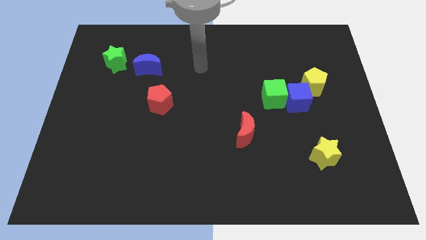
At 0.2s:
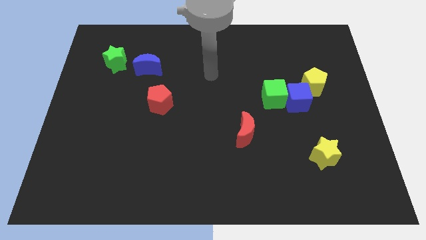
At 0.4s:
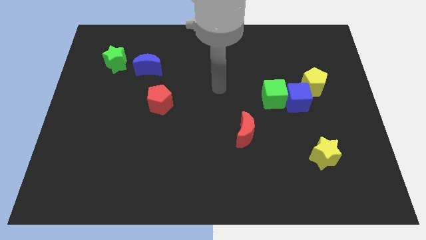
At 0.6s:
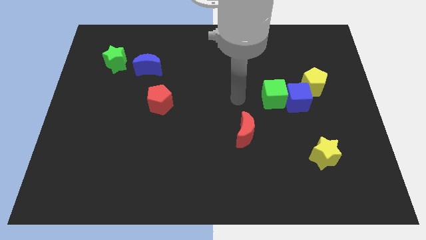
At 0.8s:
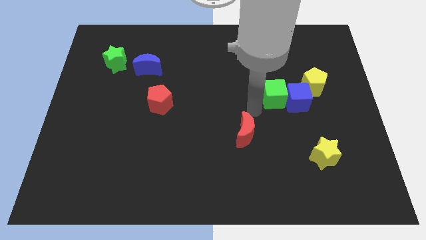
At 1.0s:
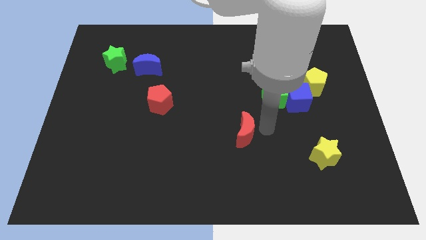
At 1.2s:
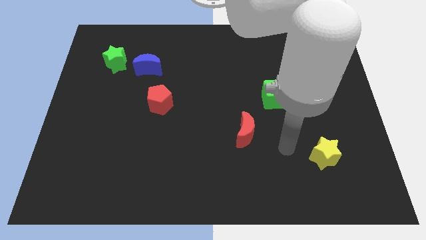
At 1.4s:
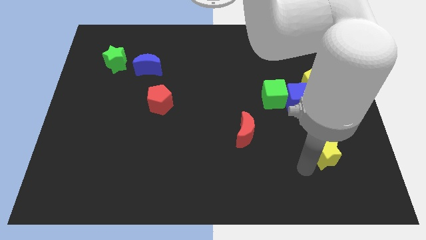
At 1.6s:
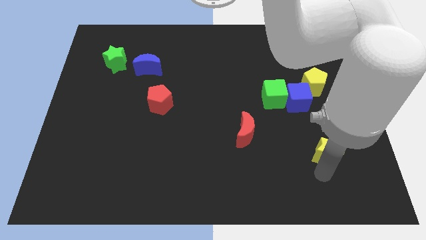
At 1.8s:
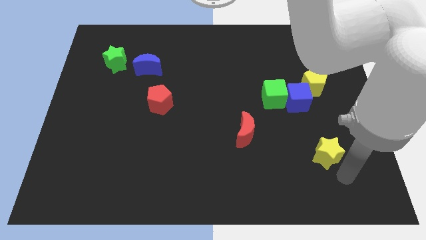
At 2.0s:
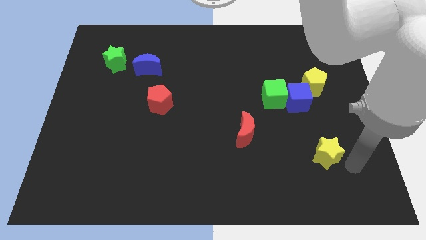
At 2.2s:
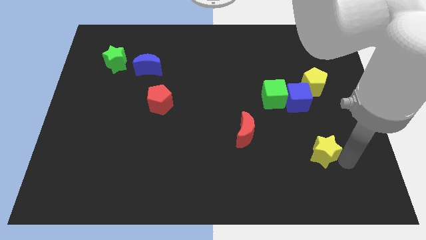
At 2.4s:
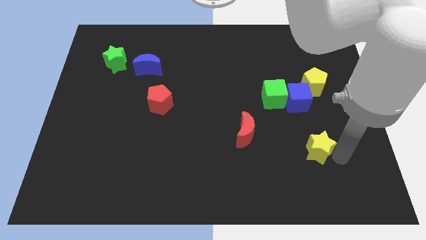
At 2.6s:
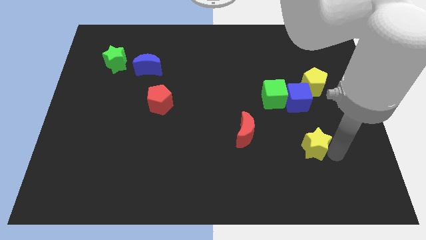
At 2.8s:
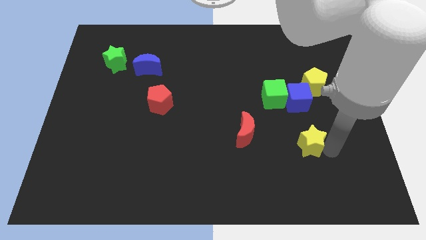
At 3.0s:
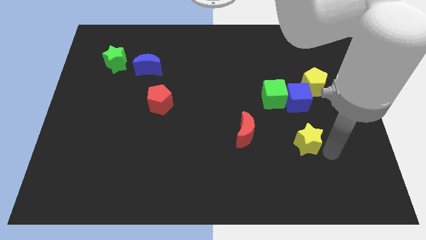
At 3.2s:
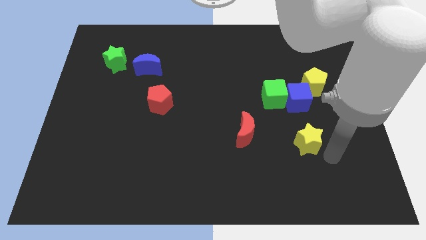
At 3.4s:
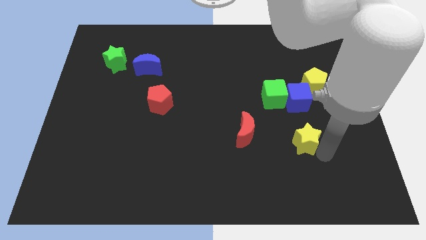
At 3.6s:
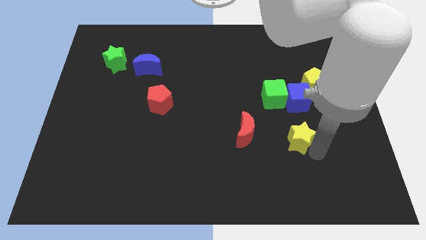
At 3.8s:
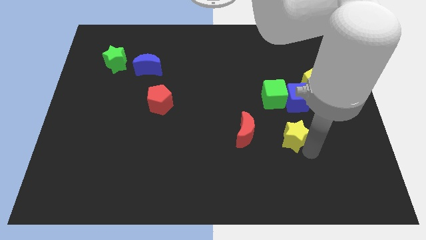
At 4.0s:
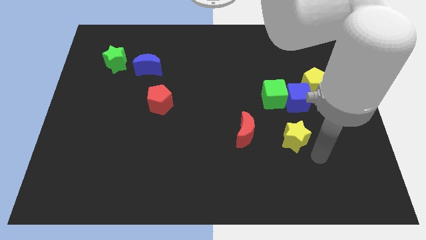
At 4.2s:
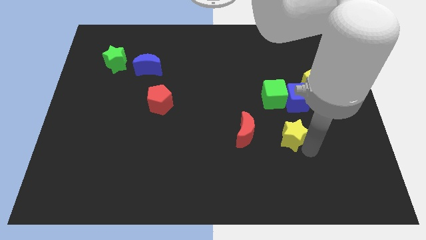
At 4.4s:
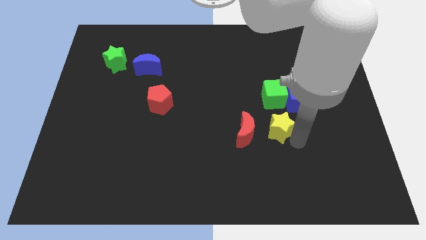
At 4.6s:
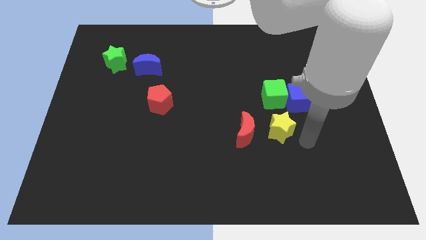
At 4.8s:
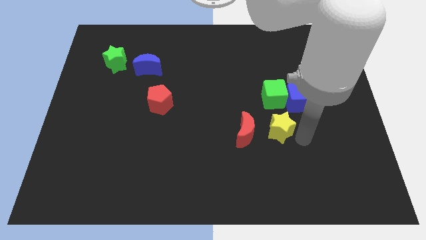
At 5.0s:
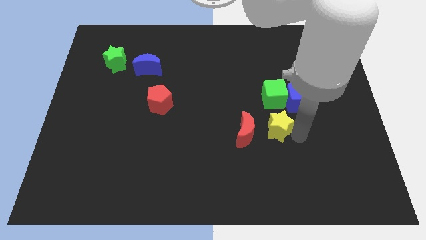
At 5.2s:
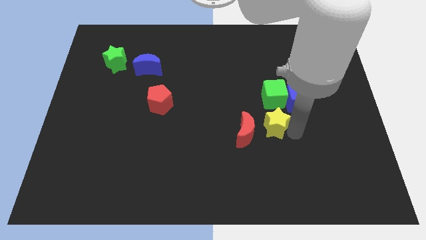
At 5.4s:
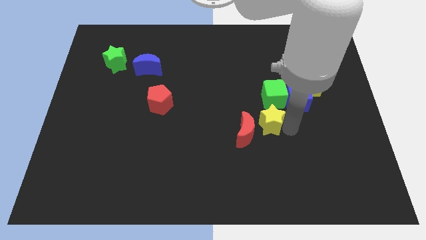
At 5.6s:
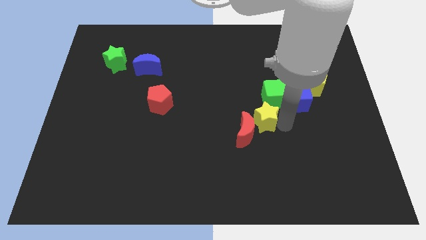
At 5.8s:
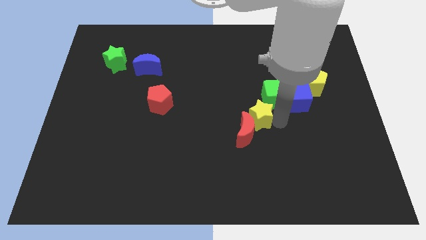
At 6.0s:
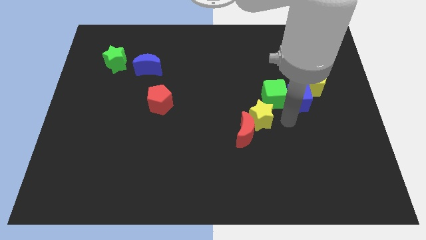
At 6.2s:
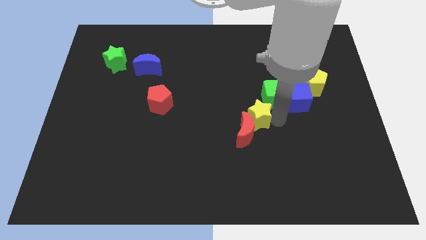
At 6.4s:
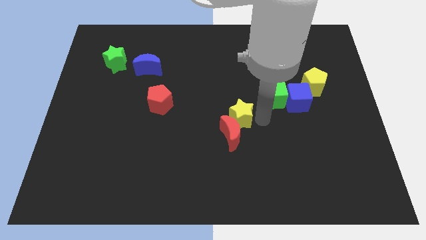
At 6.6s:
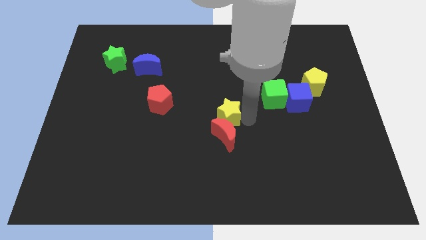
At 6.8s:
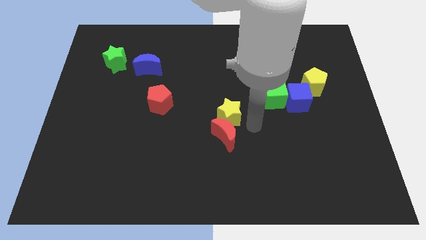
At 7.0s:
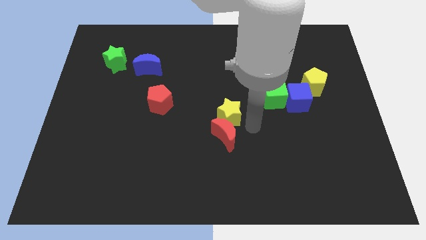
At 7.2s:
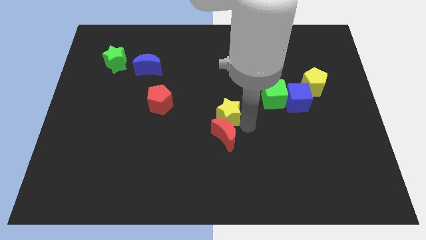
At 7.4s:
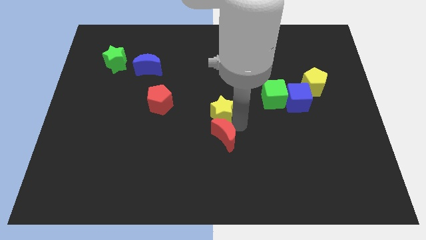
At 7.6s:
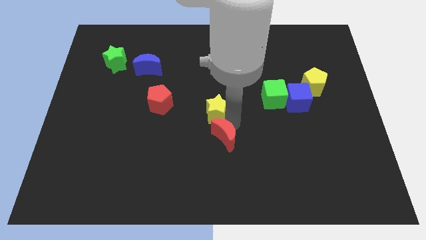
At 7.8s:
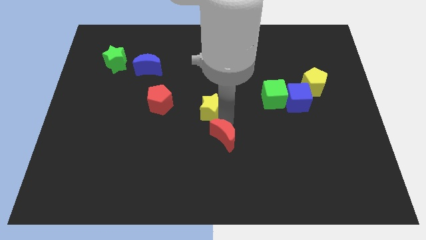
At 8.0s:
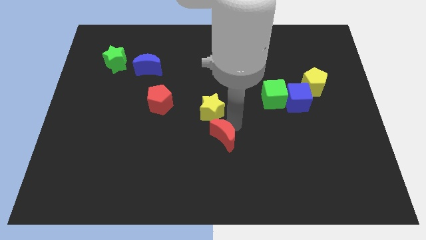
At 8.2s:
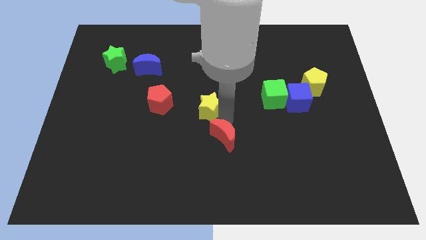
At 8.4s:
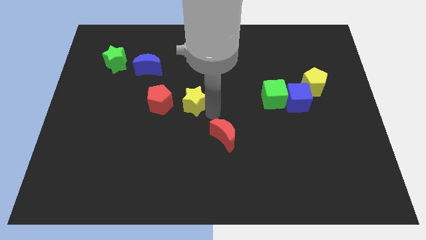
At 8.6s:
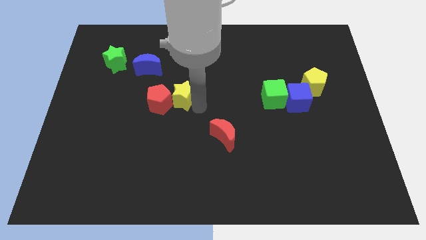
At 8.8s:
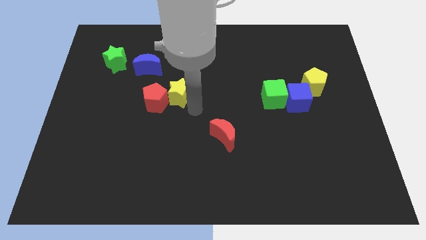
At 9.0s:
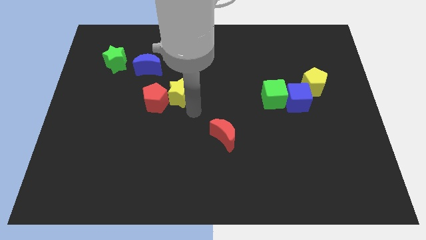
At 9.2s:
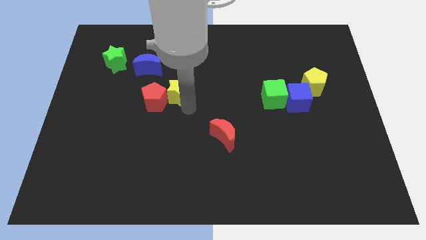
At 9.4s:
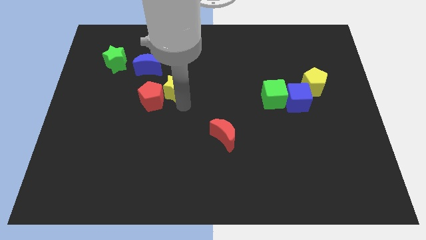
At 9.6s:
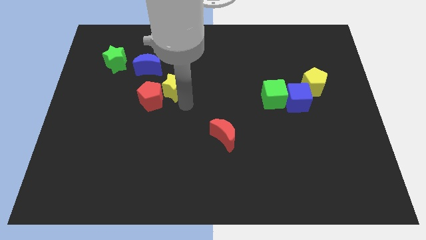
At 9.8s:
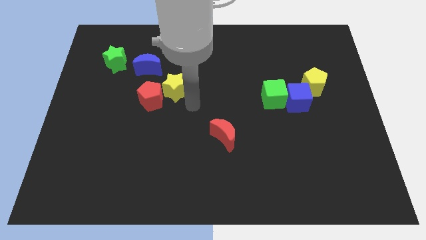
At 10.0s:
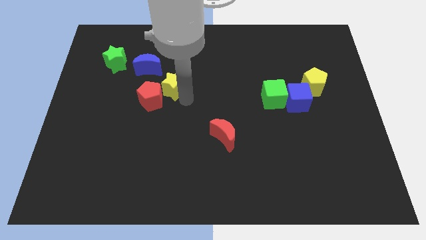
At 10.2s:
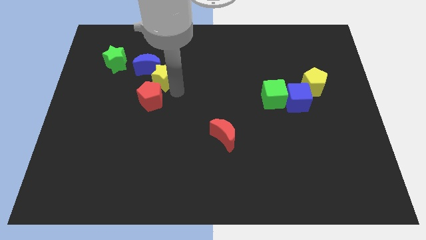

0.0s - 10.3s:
move the yellow star to the blue moon

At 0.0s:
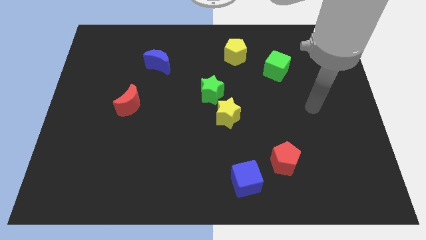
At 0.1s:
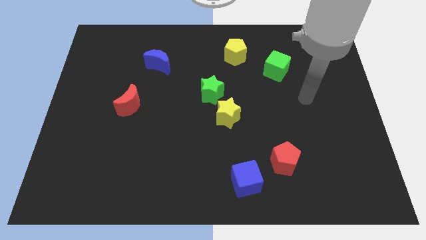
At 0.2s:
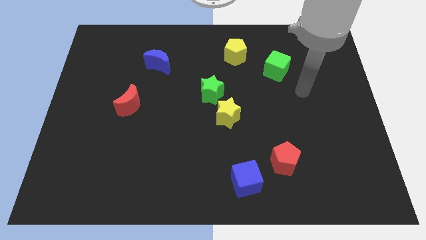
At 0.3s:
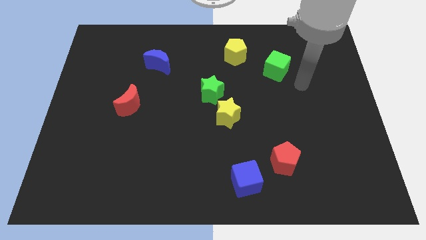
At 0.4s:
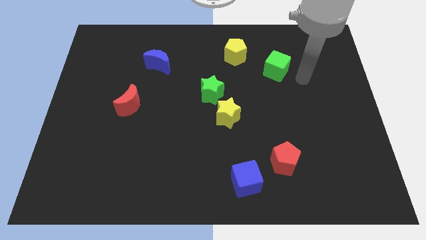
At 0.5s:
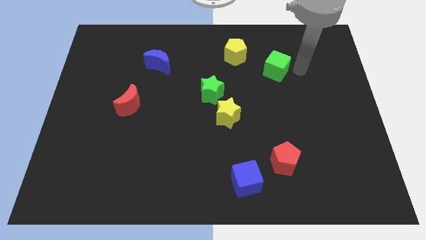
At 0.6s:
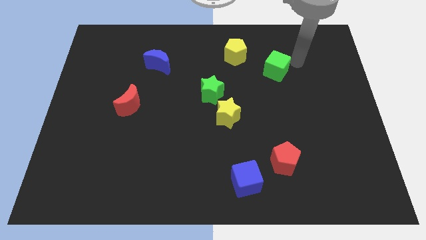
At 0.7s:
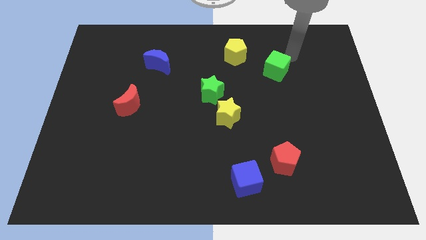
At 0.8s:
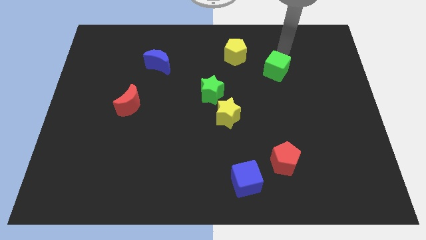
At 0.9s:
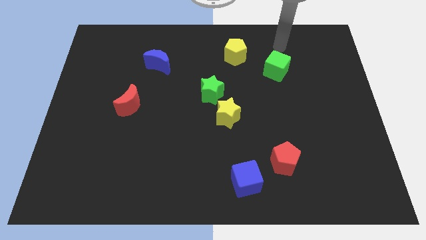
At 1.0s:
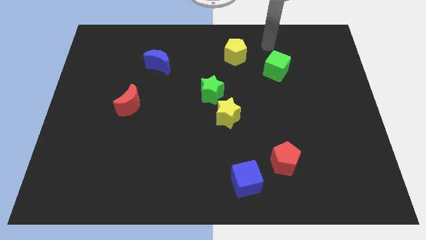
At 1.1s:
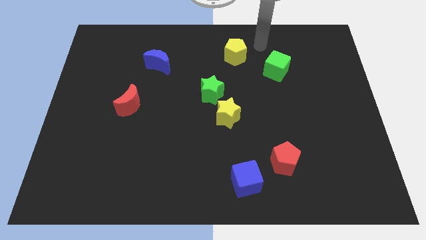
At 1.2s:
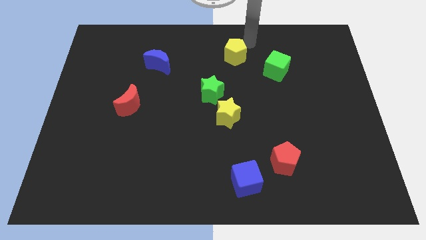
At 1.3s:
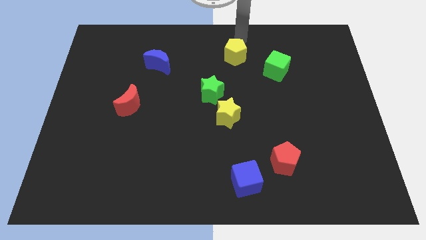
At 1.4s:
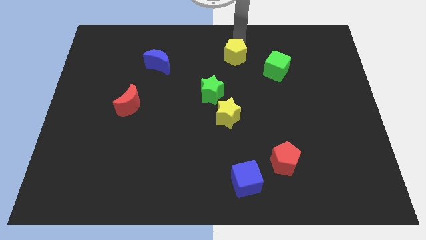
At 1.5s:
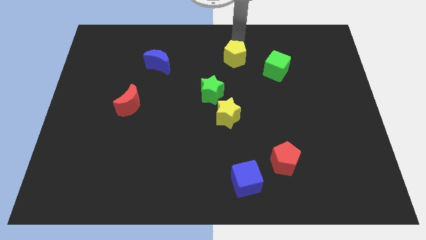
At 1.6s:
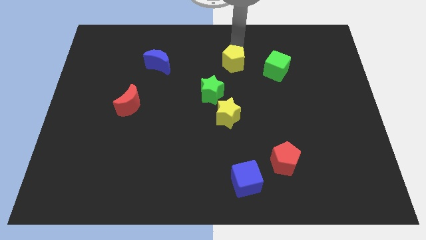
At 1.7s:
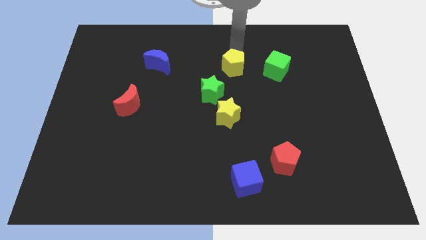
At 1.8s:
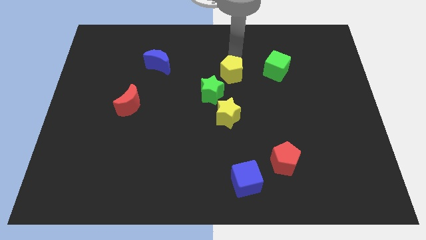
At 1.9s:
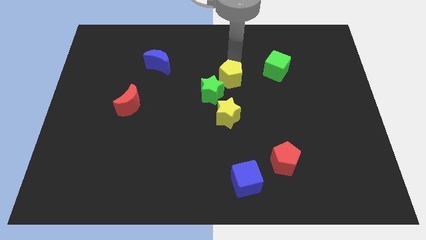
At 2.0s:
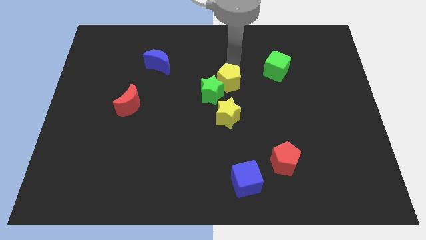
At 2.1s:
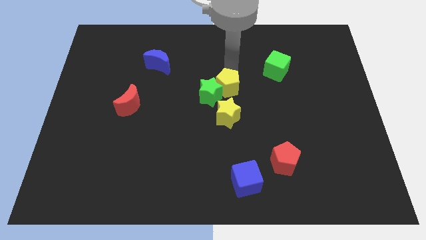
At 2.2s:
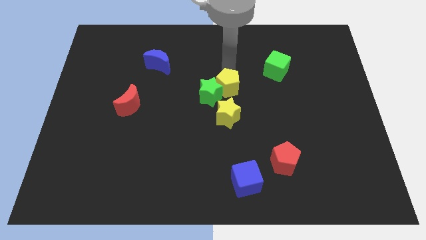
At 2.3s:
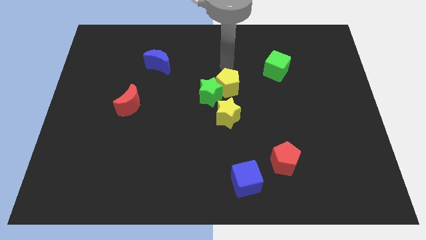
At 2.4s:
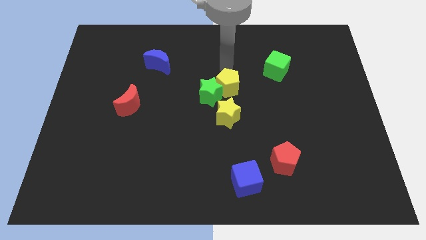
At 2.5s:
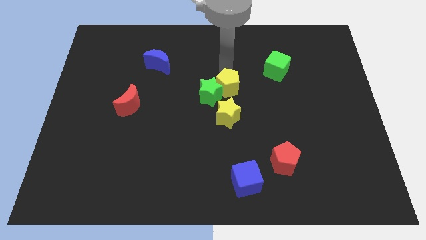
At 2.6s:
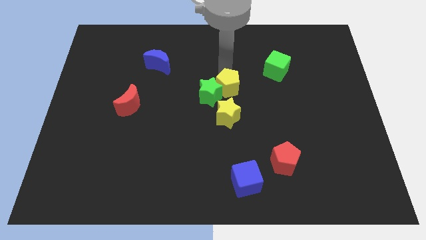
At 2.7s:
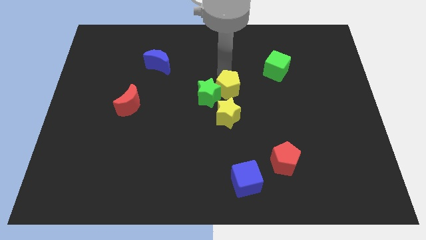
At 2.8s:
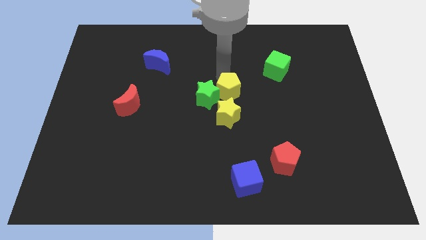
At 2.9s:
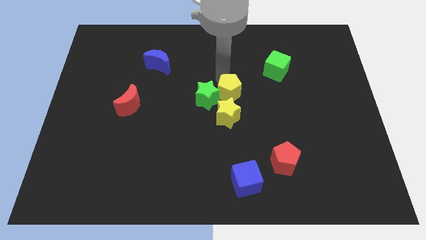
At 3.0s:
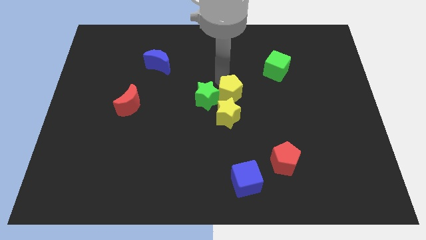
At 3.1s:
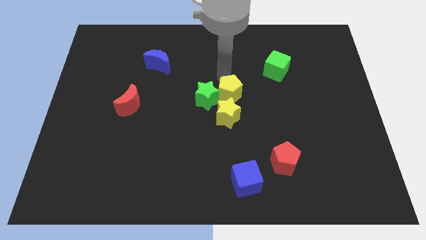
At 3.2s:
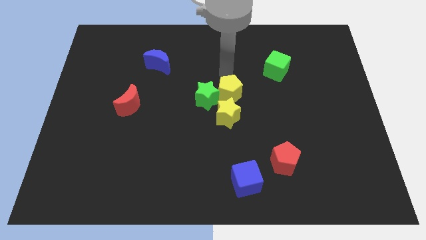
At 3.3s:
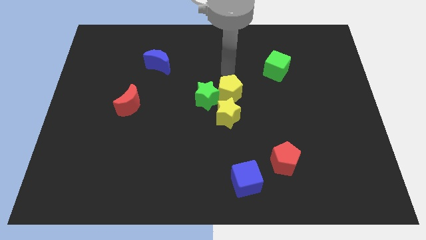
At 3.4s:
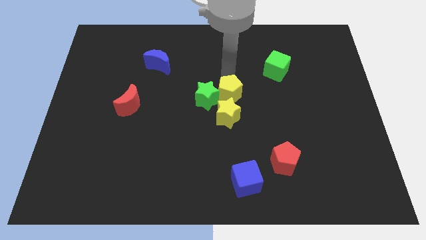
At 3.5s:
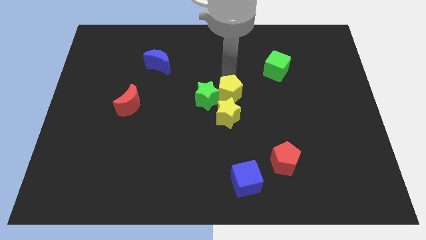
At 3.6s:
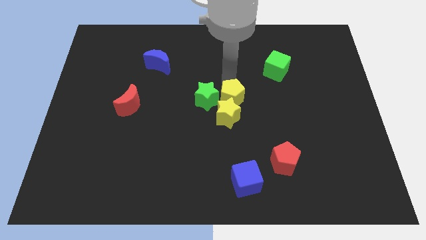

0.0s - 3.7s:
slide the yellow pentagon towards the yellow star
